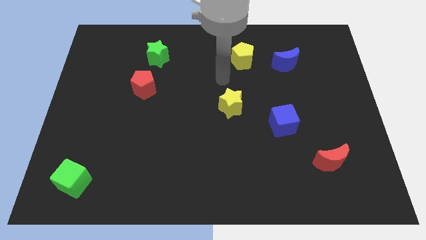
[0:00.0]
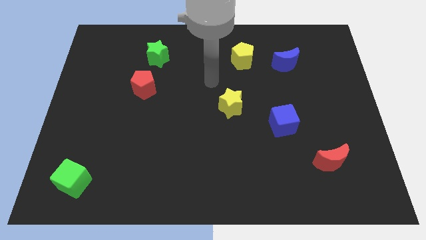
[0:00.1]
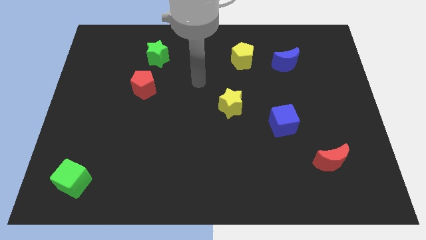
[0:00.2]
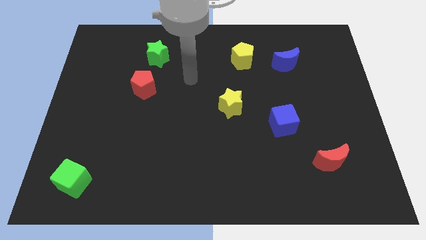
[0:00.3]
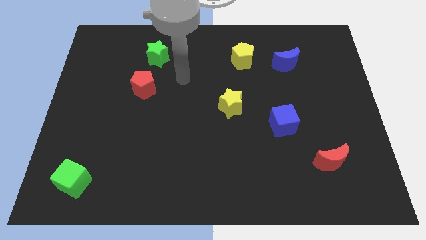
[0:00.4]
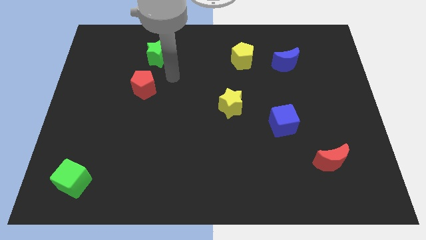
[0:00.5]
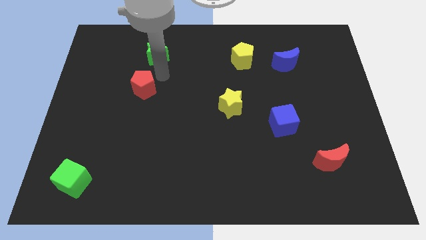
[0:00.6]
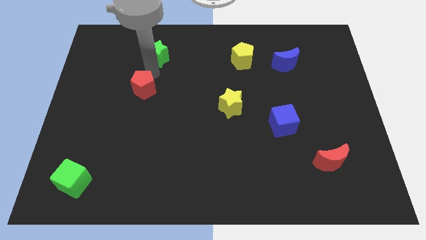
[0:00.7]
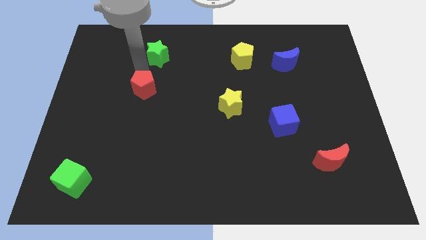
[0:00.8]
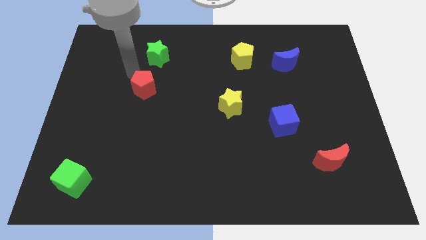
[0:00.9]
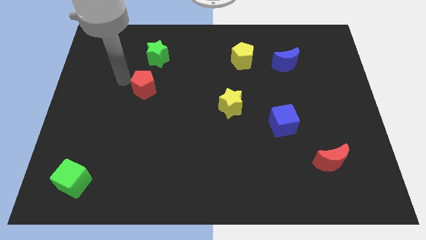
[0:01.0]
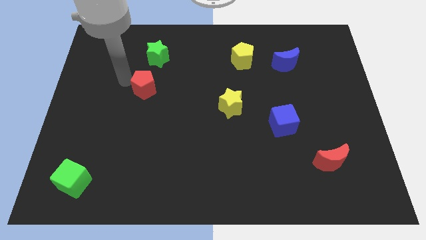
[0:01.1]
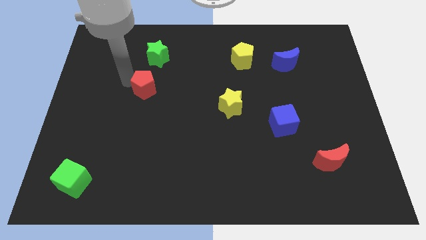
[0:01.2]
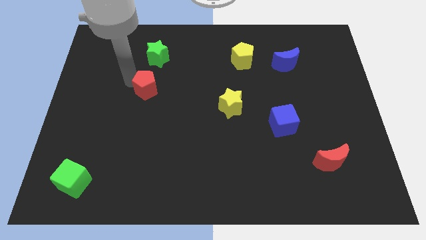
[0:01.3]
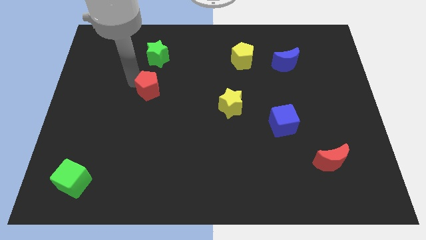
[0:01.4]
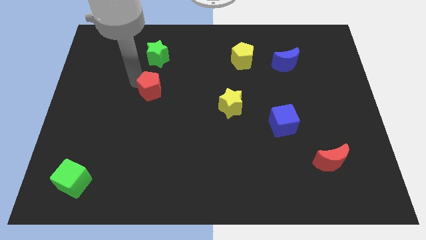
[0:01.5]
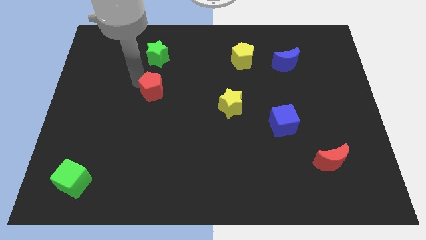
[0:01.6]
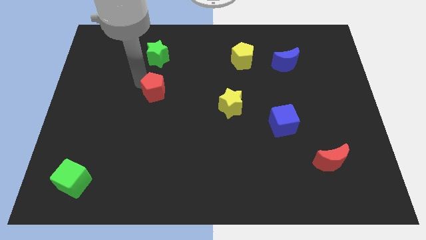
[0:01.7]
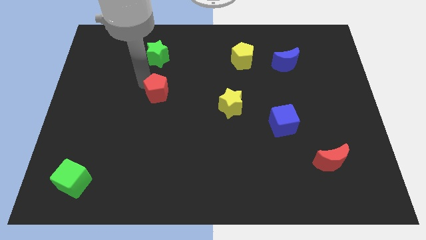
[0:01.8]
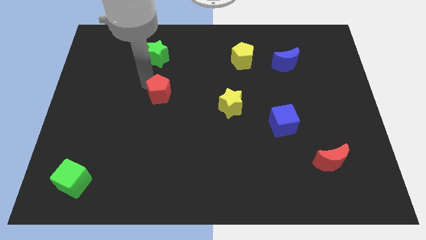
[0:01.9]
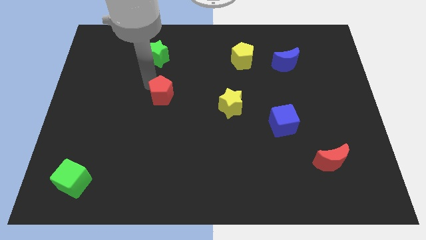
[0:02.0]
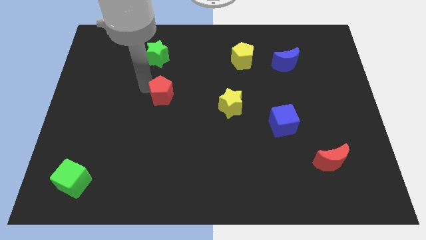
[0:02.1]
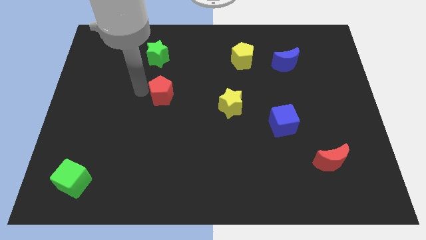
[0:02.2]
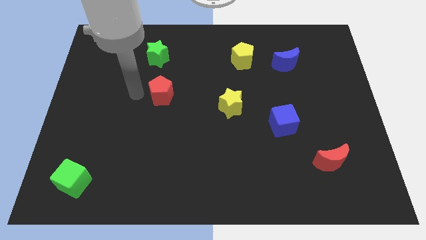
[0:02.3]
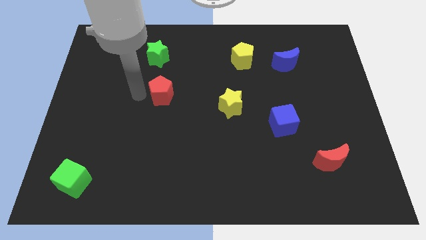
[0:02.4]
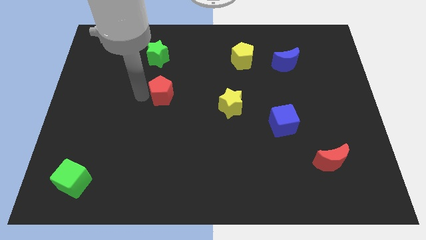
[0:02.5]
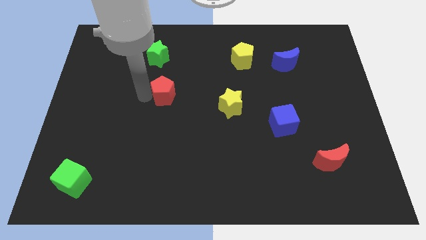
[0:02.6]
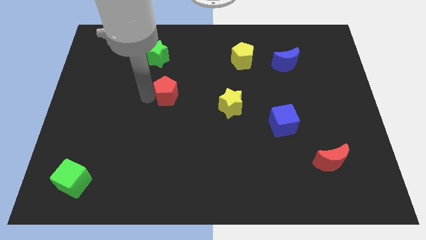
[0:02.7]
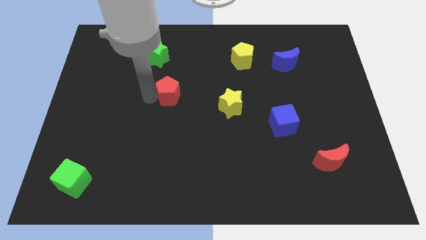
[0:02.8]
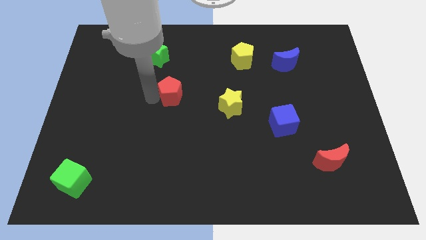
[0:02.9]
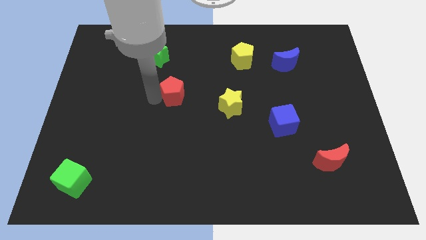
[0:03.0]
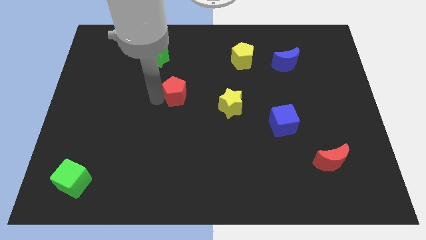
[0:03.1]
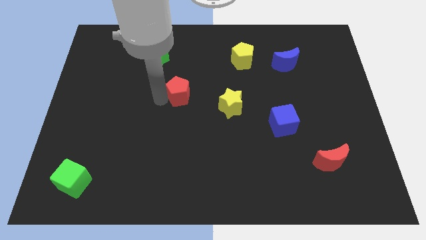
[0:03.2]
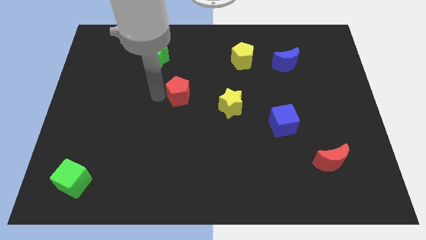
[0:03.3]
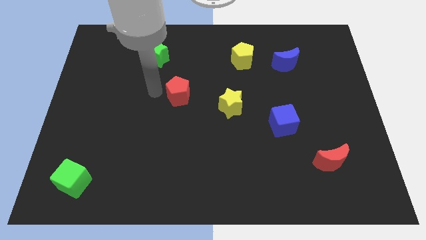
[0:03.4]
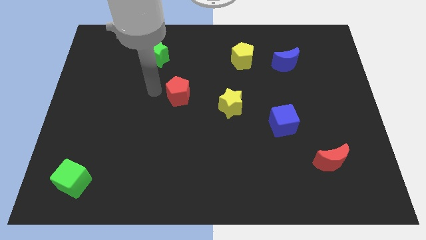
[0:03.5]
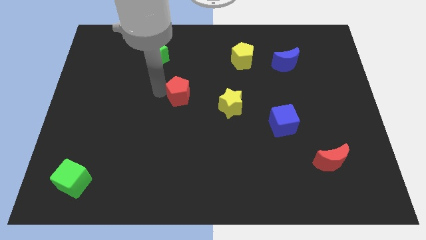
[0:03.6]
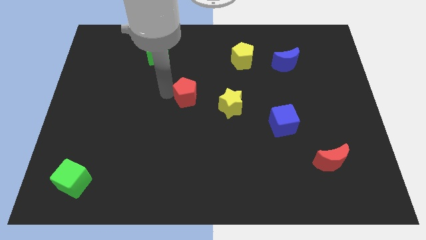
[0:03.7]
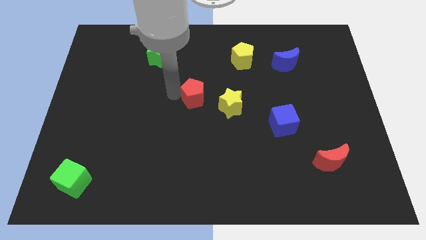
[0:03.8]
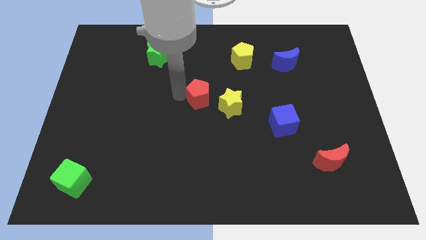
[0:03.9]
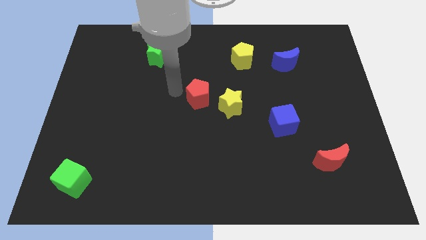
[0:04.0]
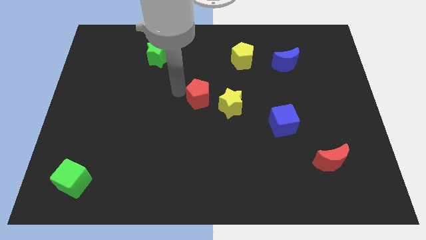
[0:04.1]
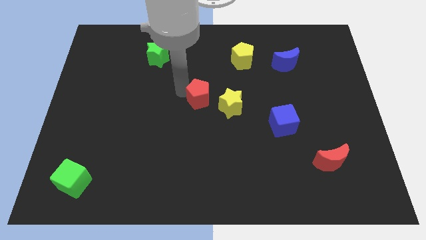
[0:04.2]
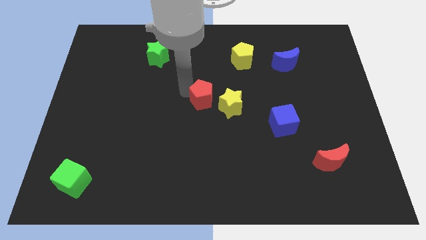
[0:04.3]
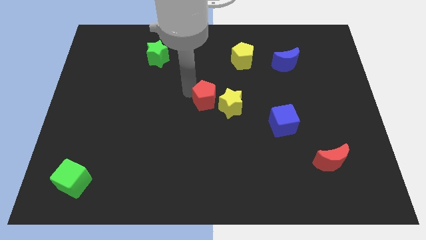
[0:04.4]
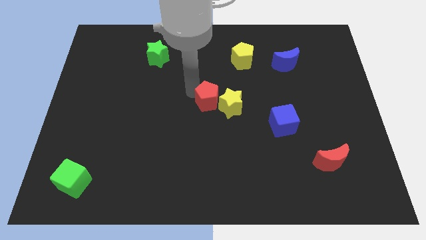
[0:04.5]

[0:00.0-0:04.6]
move the red pentagon towards the yellow star

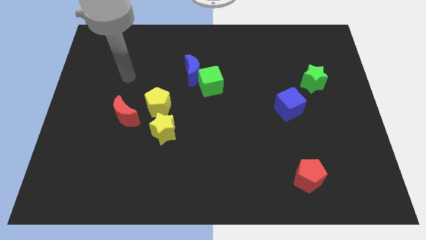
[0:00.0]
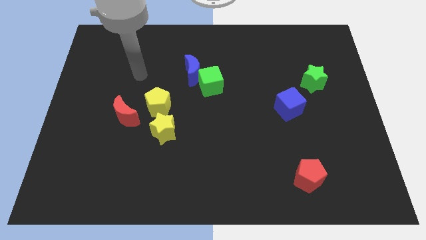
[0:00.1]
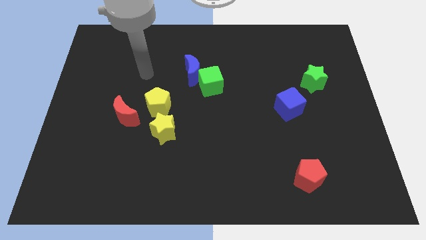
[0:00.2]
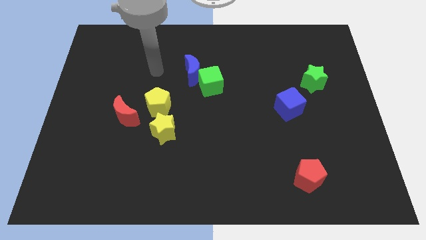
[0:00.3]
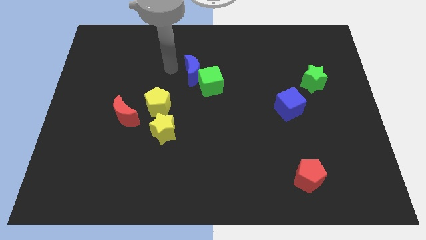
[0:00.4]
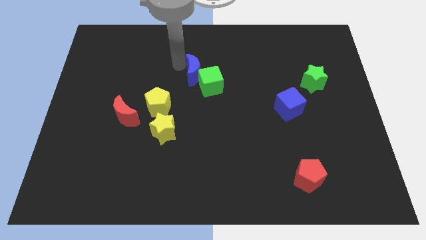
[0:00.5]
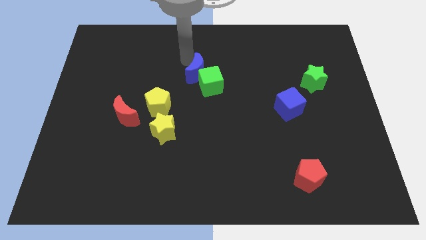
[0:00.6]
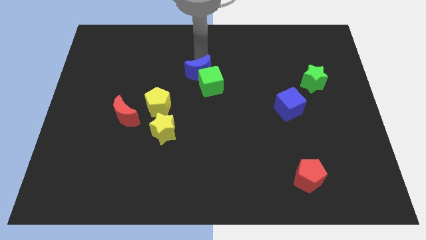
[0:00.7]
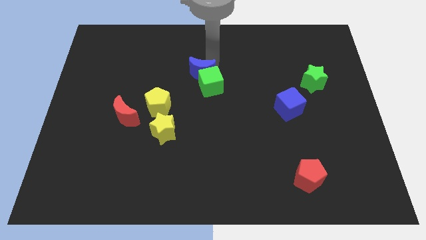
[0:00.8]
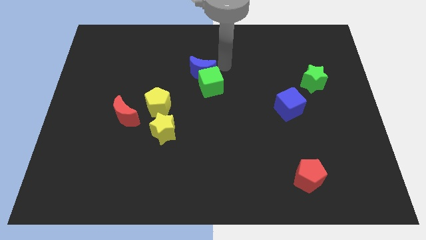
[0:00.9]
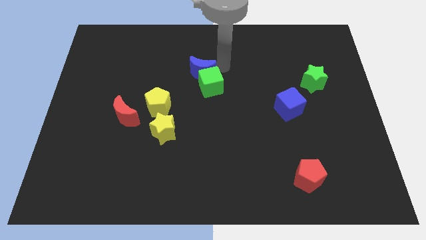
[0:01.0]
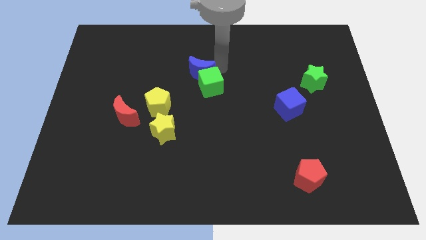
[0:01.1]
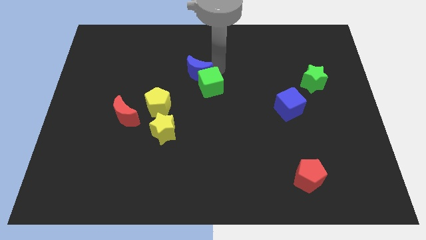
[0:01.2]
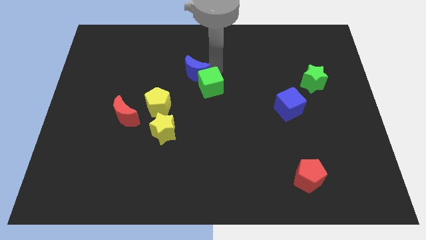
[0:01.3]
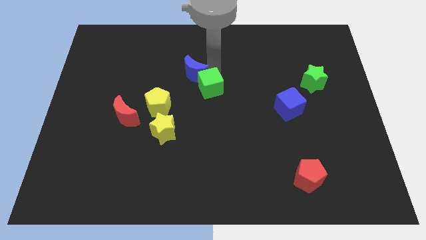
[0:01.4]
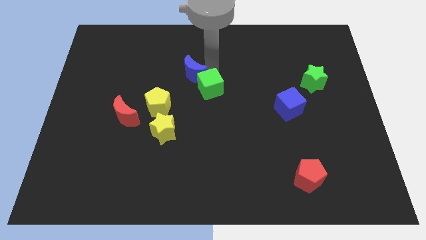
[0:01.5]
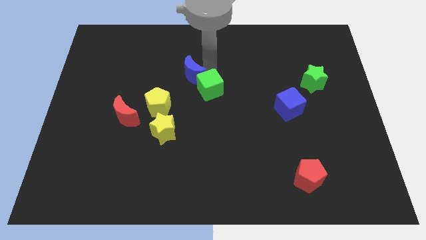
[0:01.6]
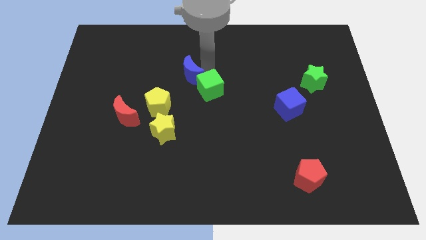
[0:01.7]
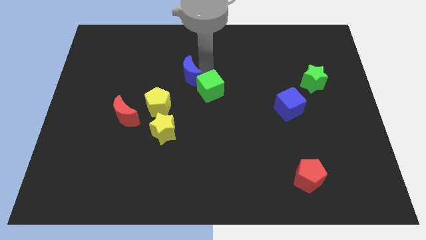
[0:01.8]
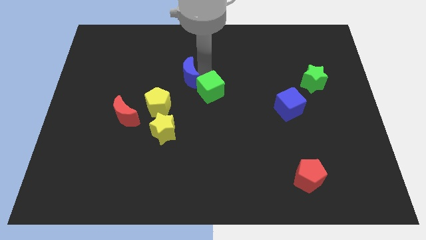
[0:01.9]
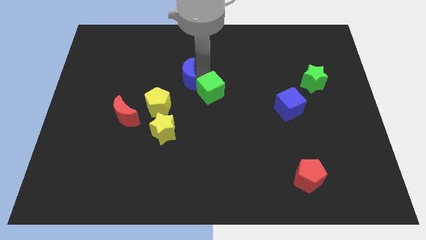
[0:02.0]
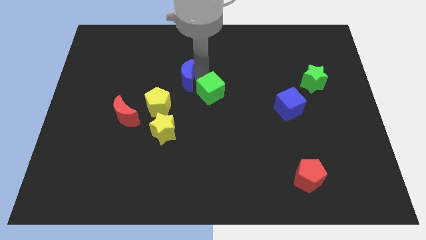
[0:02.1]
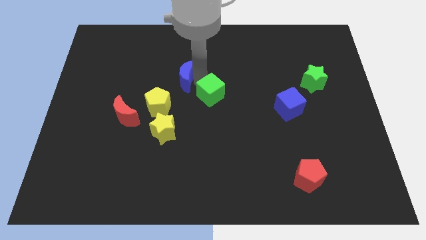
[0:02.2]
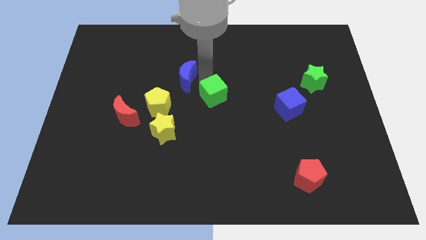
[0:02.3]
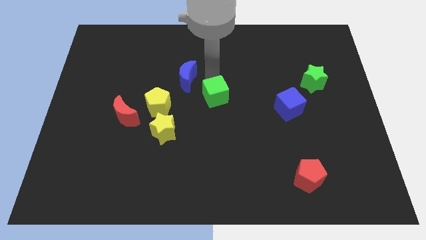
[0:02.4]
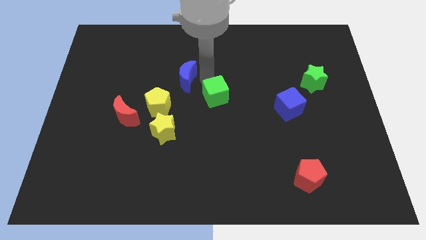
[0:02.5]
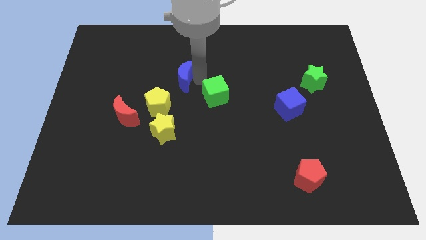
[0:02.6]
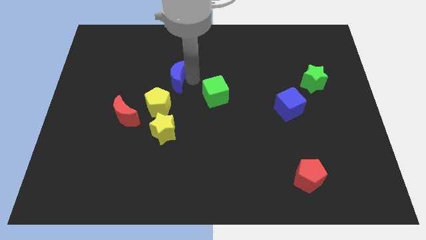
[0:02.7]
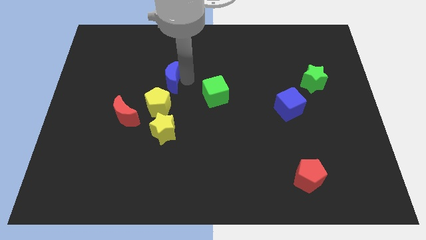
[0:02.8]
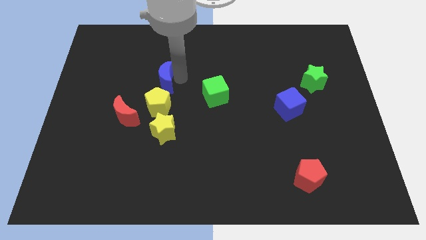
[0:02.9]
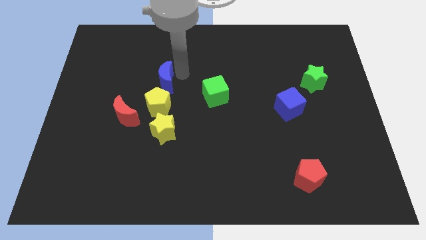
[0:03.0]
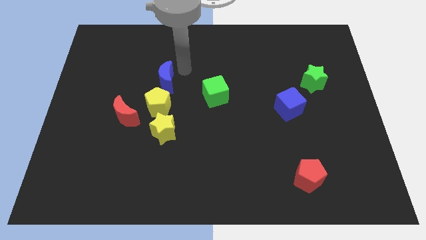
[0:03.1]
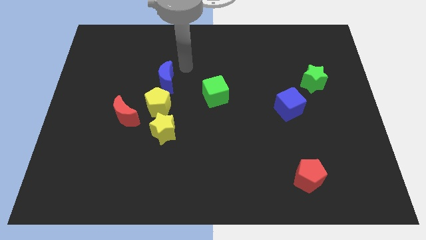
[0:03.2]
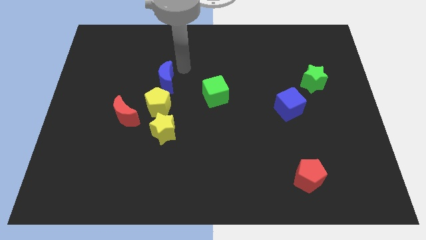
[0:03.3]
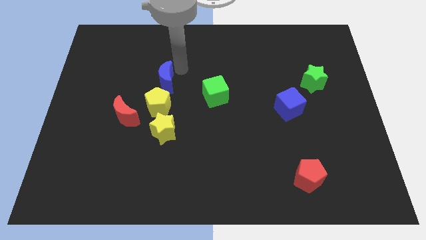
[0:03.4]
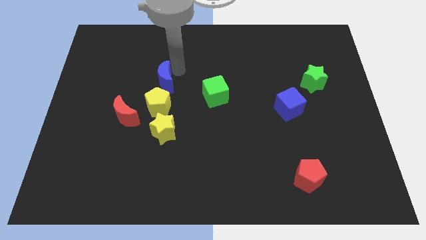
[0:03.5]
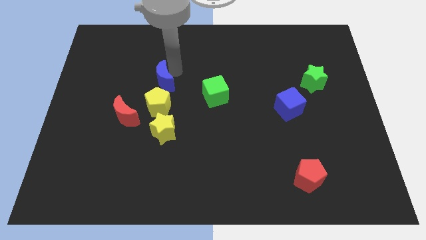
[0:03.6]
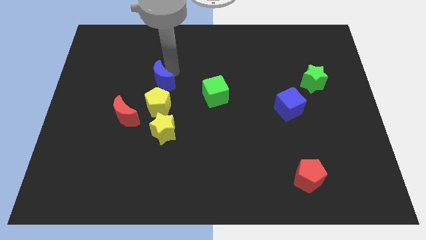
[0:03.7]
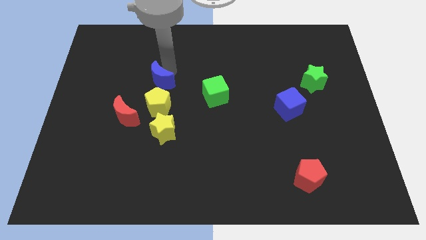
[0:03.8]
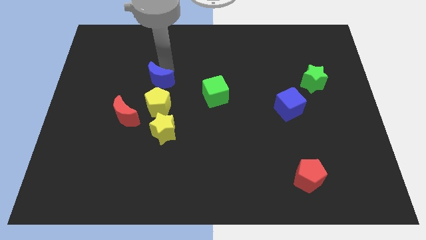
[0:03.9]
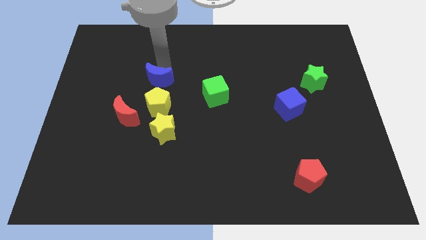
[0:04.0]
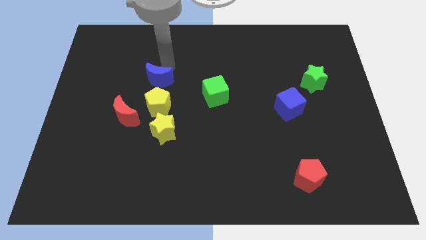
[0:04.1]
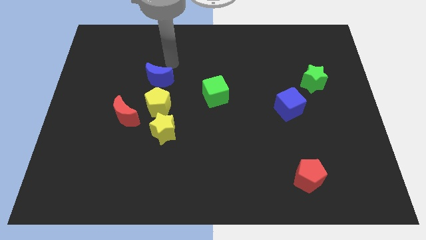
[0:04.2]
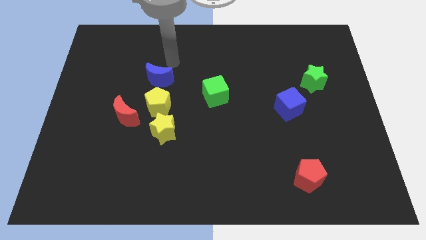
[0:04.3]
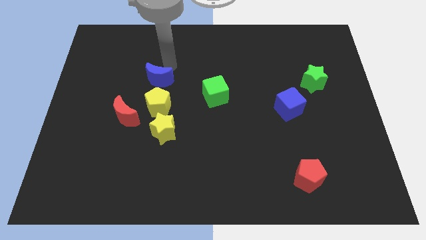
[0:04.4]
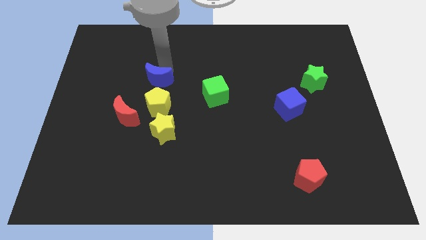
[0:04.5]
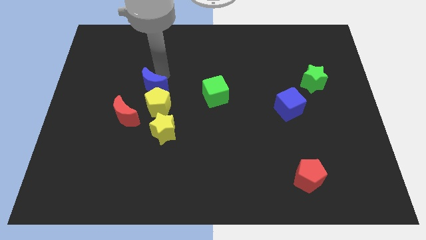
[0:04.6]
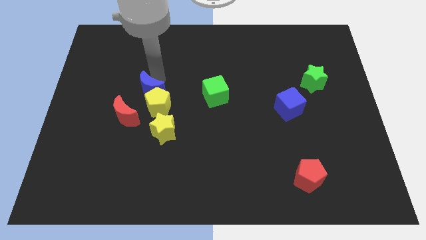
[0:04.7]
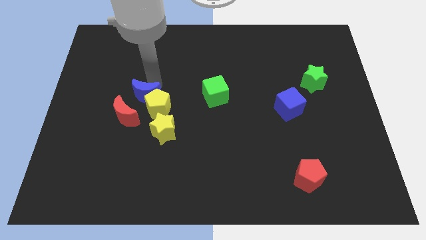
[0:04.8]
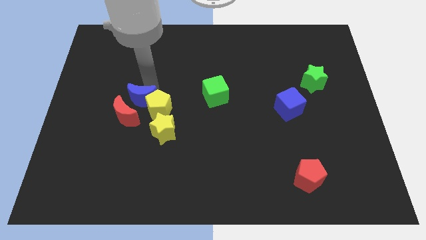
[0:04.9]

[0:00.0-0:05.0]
move the blue moon towards the red moon
